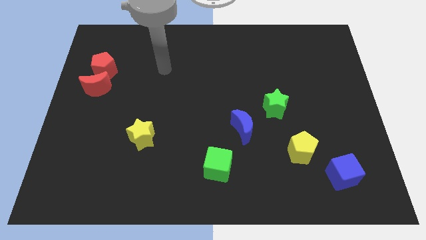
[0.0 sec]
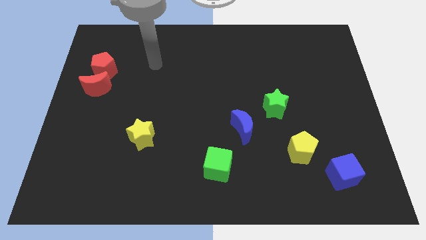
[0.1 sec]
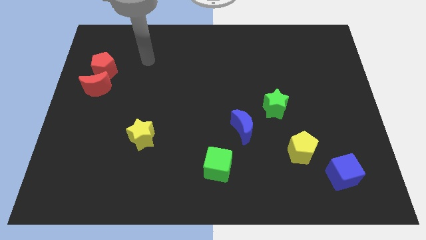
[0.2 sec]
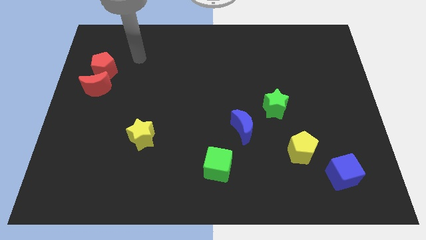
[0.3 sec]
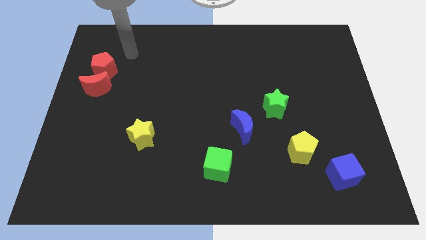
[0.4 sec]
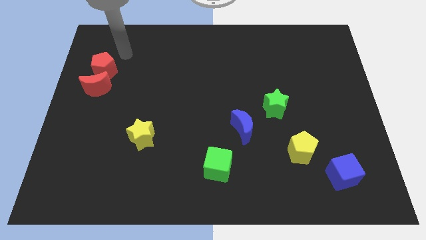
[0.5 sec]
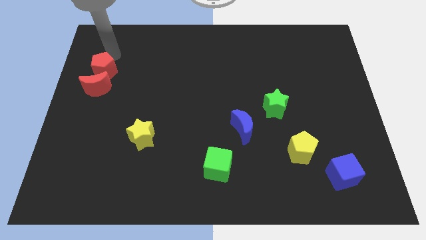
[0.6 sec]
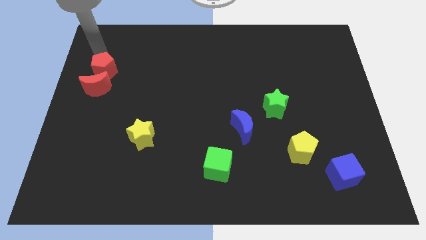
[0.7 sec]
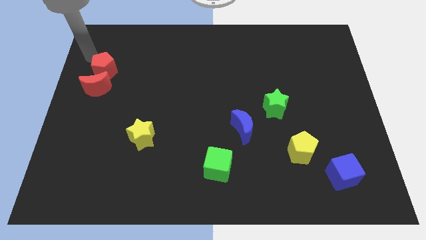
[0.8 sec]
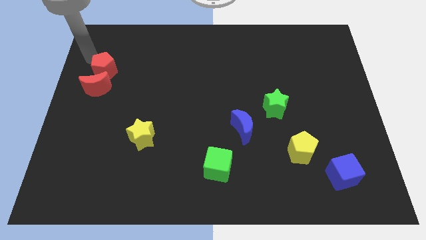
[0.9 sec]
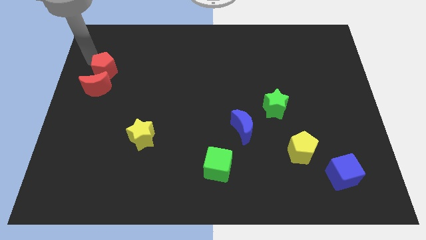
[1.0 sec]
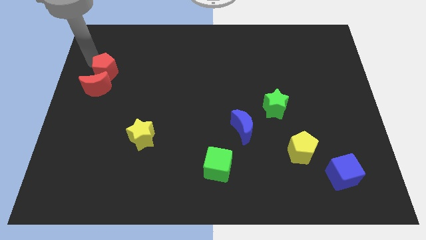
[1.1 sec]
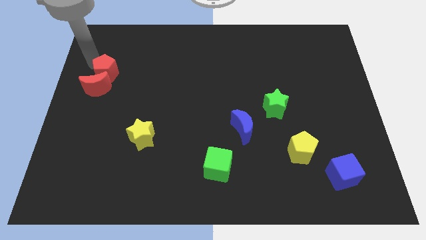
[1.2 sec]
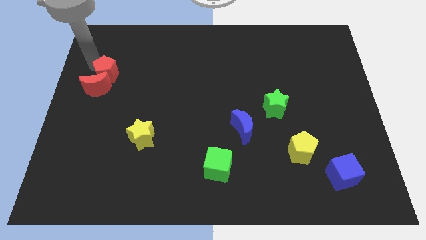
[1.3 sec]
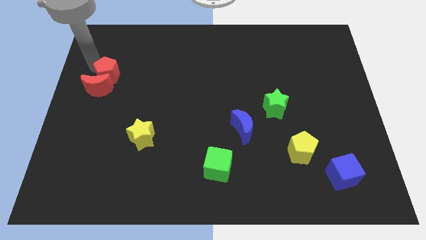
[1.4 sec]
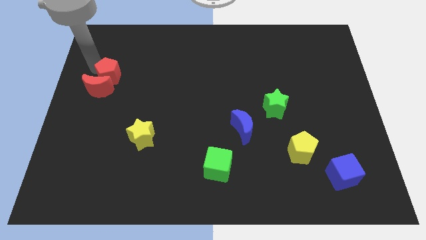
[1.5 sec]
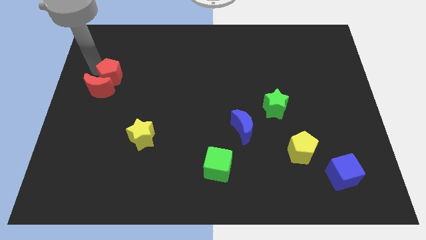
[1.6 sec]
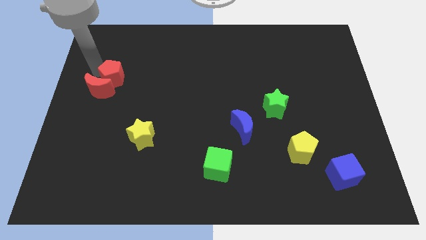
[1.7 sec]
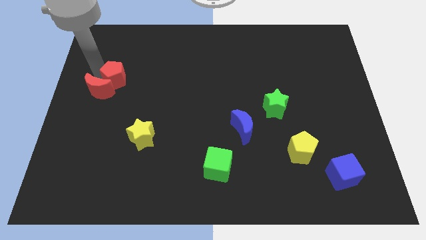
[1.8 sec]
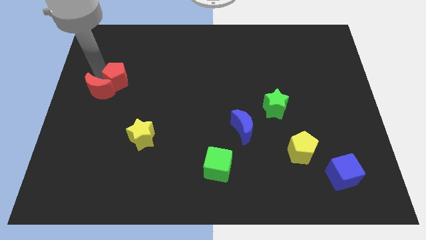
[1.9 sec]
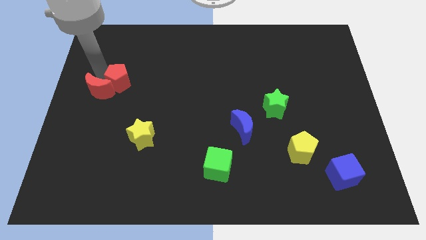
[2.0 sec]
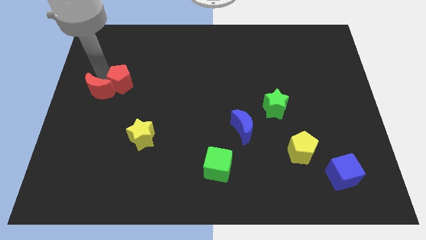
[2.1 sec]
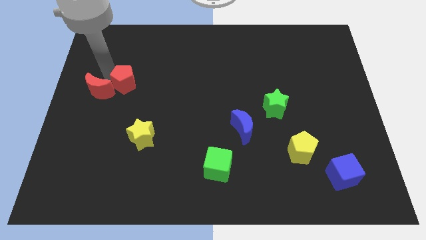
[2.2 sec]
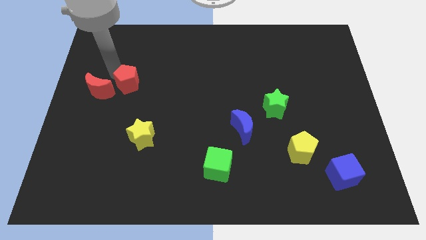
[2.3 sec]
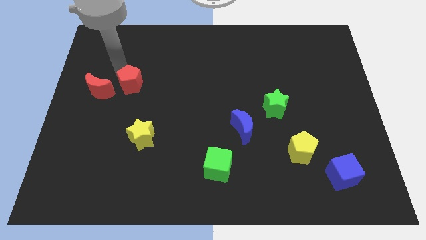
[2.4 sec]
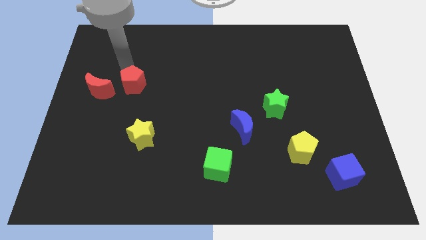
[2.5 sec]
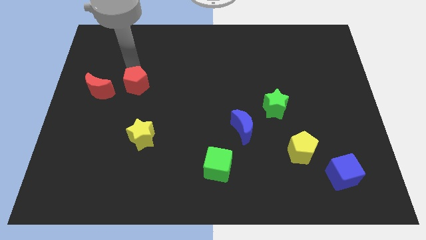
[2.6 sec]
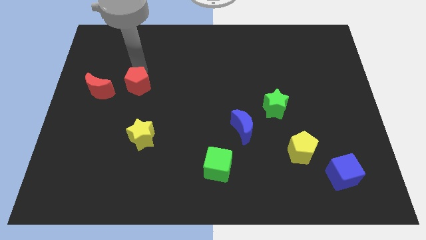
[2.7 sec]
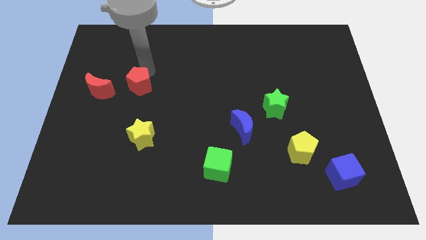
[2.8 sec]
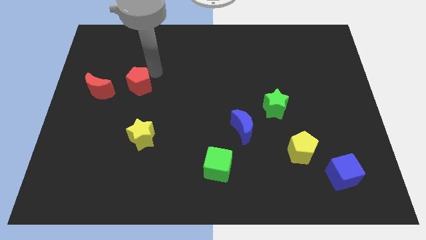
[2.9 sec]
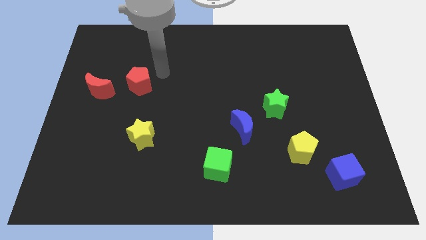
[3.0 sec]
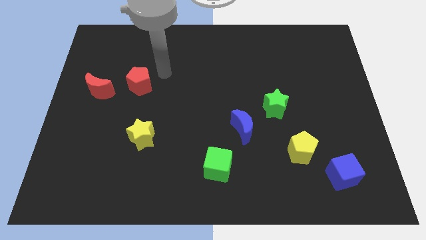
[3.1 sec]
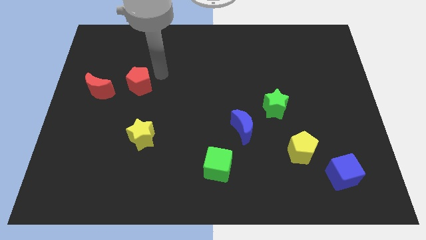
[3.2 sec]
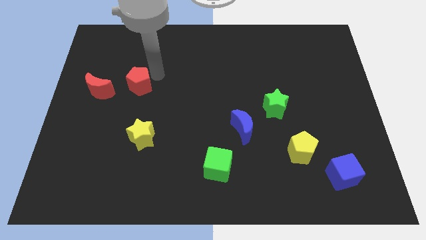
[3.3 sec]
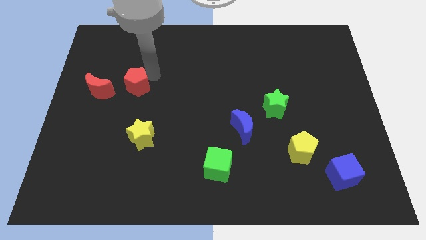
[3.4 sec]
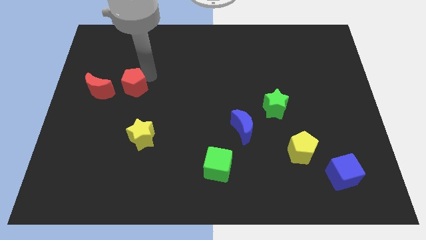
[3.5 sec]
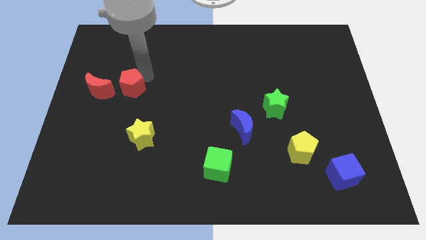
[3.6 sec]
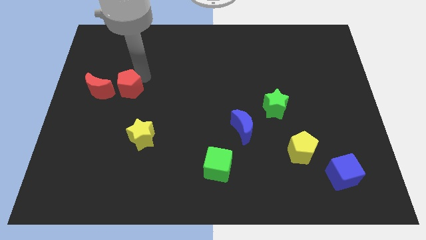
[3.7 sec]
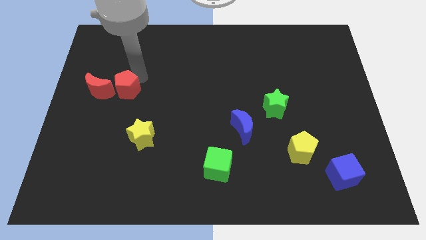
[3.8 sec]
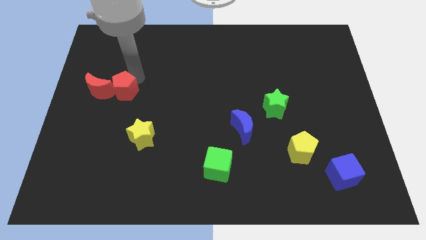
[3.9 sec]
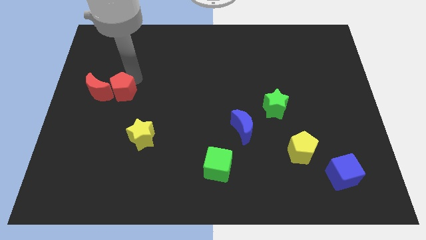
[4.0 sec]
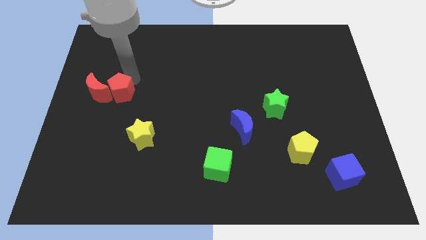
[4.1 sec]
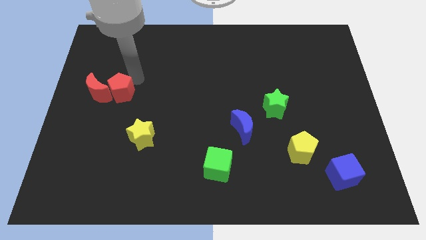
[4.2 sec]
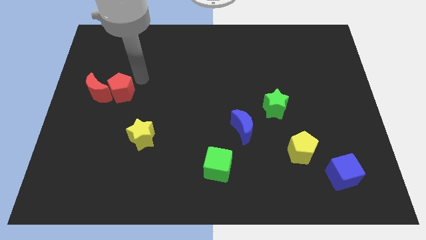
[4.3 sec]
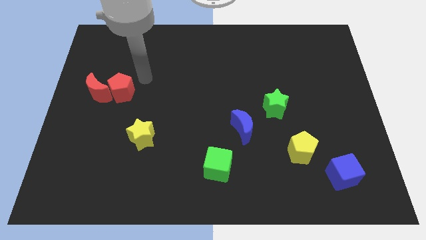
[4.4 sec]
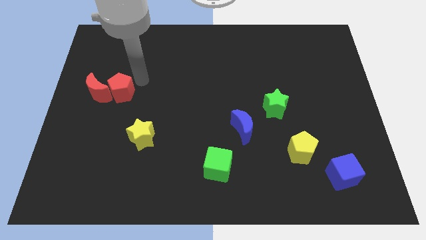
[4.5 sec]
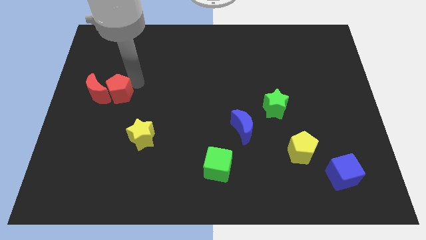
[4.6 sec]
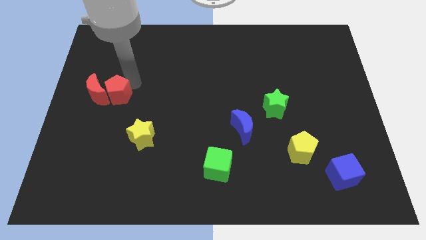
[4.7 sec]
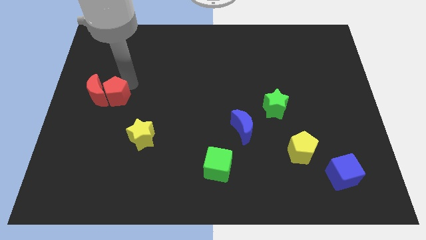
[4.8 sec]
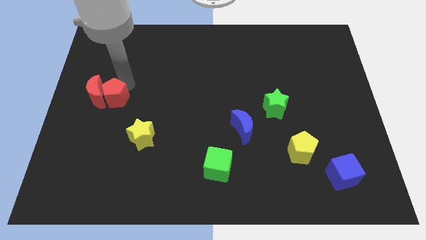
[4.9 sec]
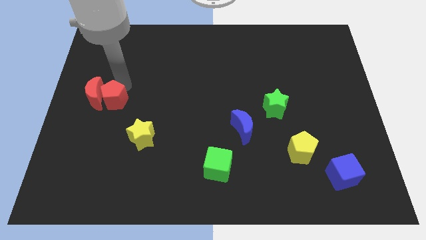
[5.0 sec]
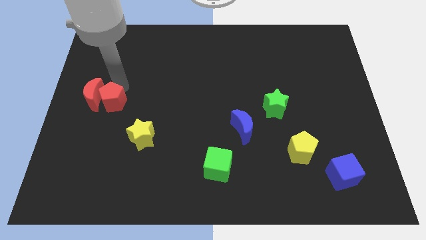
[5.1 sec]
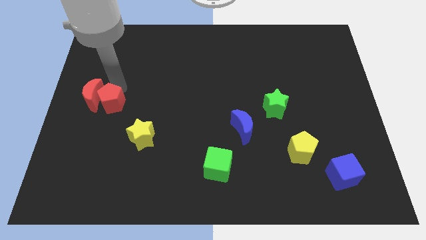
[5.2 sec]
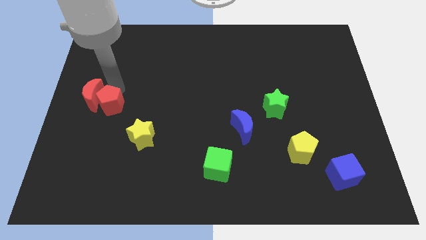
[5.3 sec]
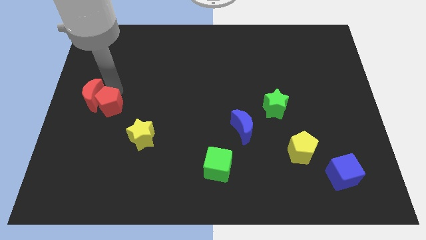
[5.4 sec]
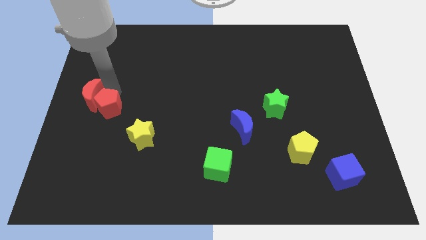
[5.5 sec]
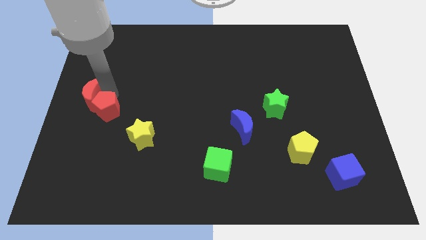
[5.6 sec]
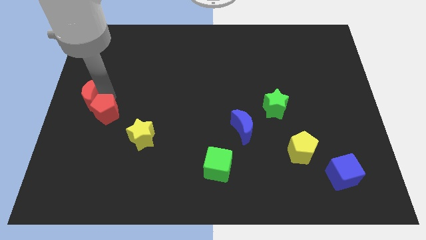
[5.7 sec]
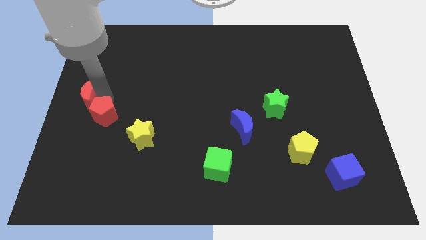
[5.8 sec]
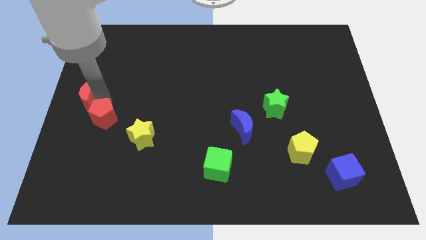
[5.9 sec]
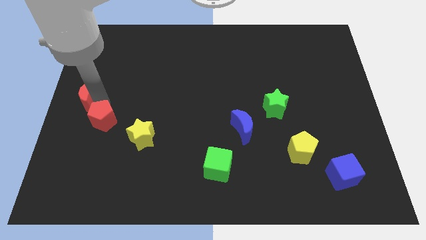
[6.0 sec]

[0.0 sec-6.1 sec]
move the red pentagon just left of the yellow star

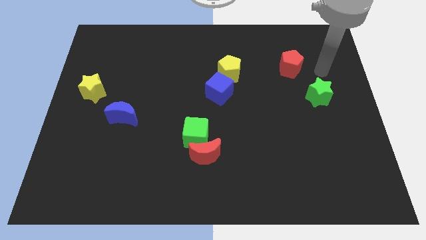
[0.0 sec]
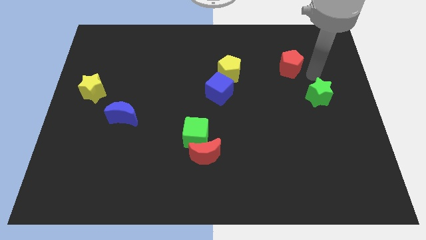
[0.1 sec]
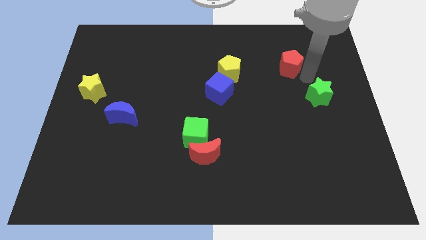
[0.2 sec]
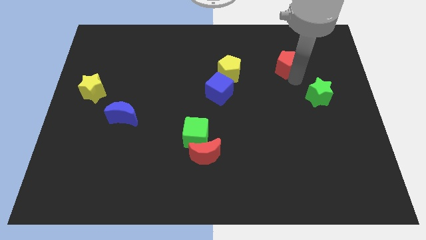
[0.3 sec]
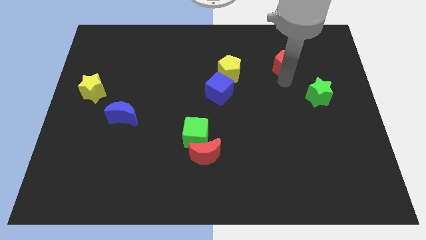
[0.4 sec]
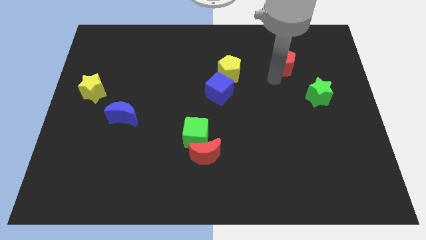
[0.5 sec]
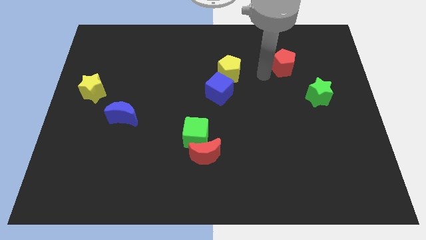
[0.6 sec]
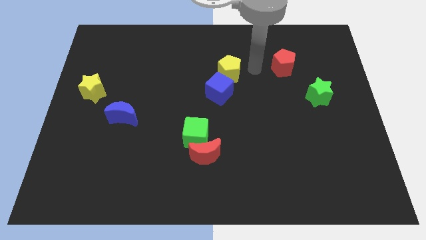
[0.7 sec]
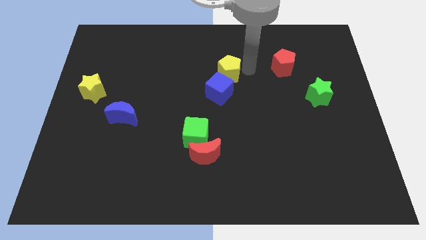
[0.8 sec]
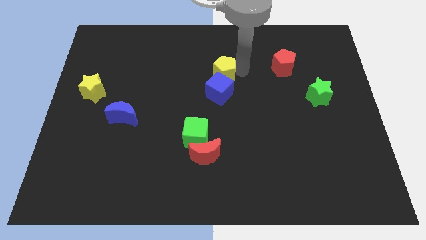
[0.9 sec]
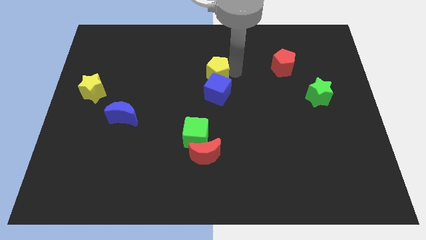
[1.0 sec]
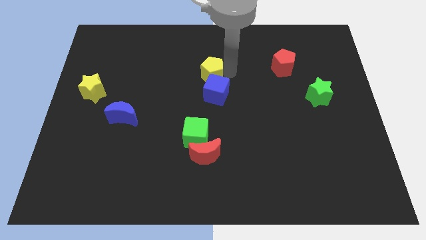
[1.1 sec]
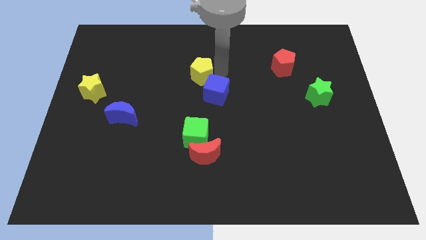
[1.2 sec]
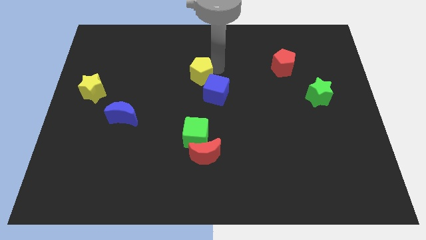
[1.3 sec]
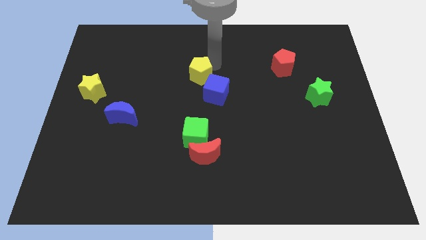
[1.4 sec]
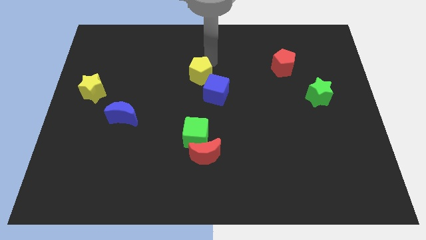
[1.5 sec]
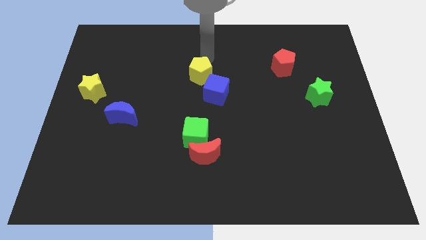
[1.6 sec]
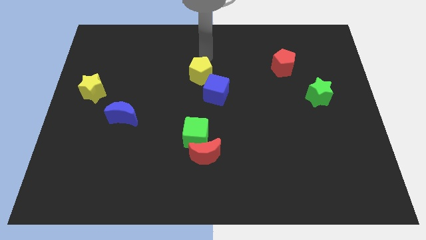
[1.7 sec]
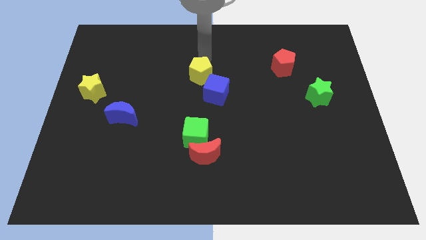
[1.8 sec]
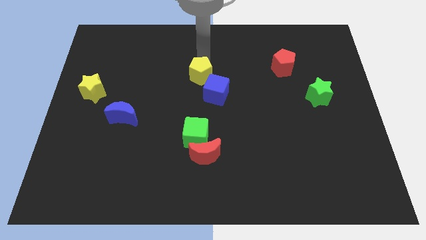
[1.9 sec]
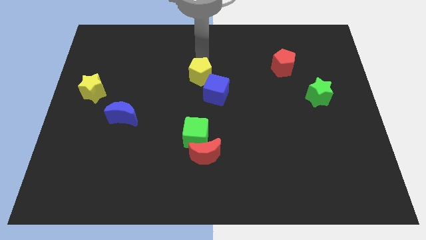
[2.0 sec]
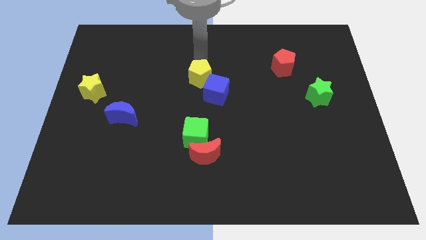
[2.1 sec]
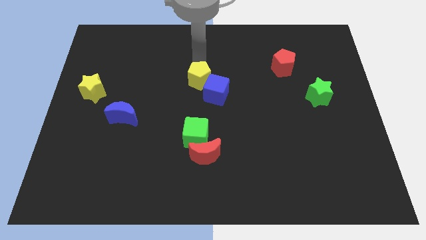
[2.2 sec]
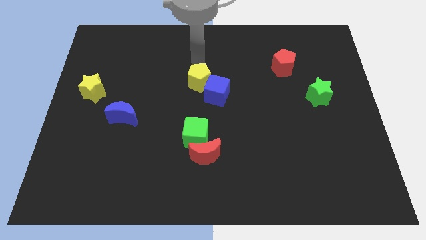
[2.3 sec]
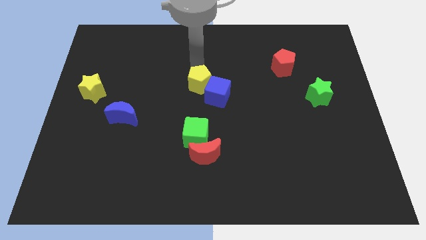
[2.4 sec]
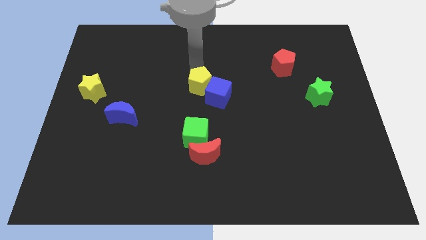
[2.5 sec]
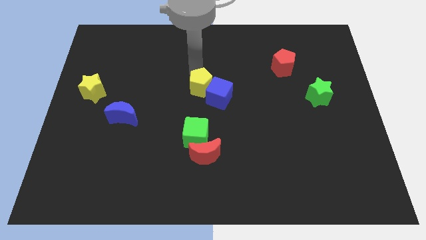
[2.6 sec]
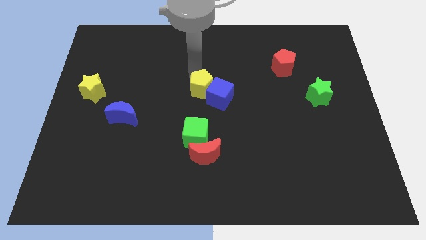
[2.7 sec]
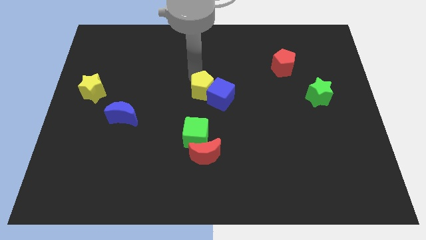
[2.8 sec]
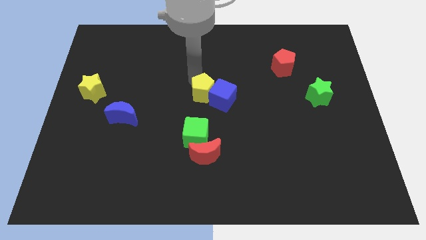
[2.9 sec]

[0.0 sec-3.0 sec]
put the yellow pentagon diagonally down and to the left of the blue cube
